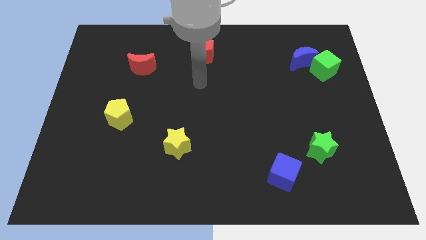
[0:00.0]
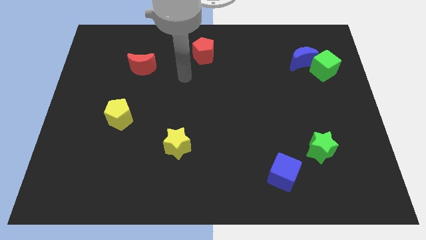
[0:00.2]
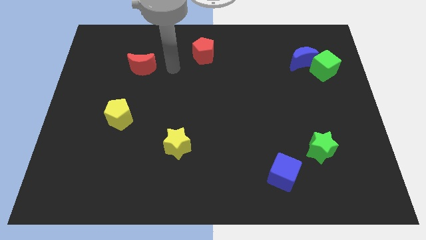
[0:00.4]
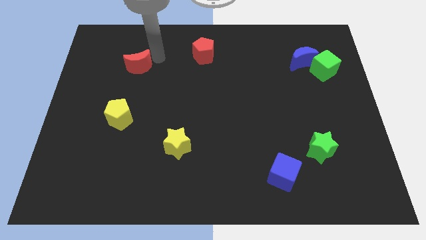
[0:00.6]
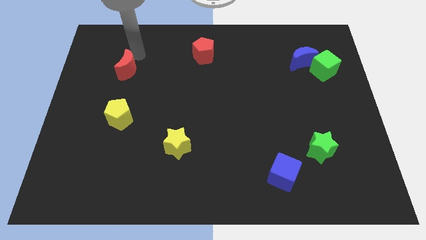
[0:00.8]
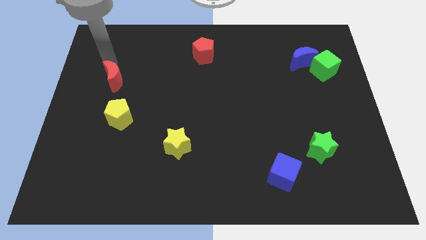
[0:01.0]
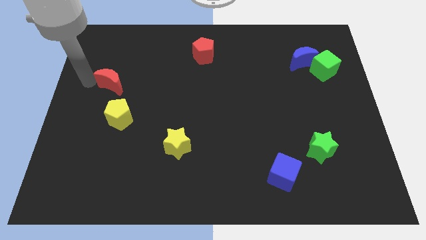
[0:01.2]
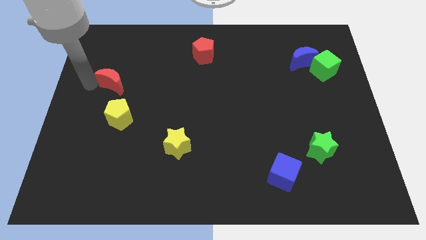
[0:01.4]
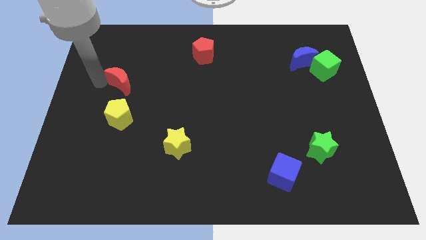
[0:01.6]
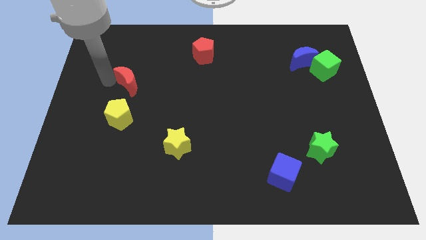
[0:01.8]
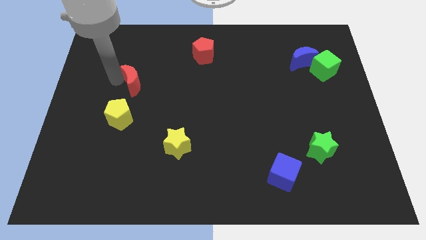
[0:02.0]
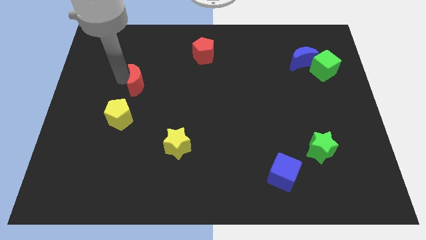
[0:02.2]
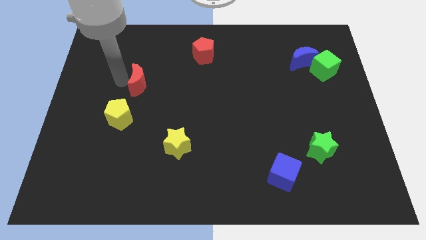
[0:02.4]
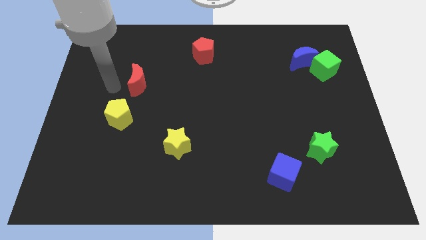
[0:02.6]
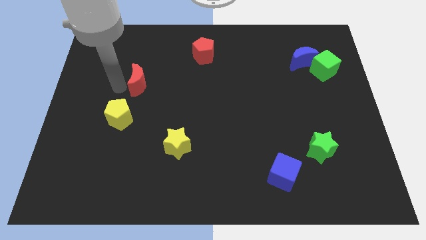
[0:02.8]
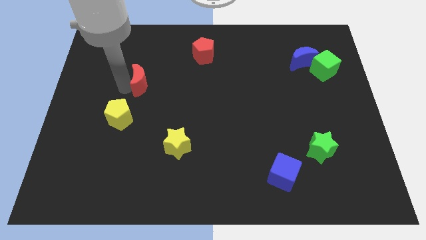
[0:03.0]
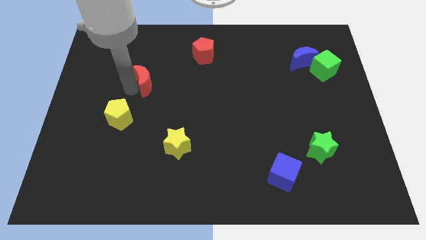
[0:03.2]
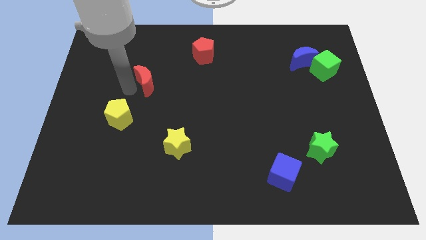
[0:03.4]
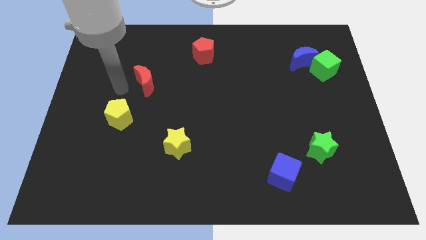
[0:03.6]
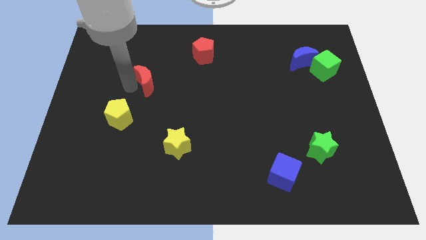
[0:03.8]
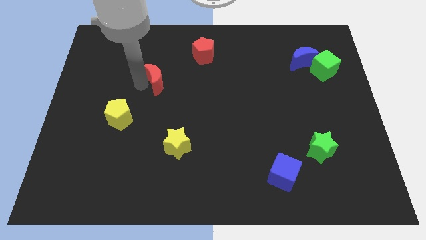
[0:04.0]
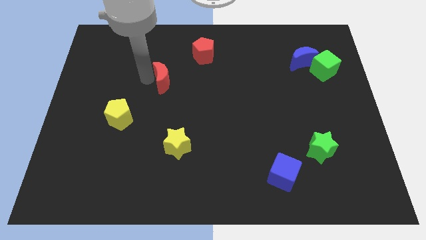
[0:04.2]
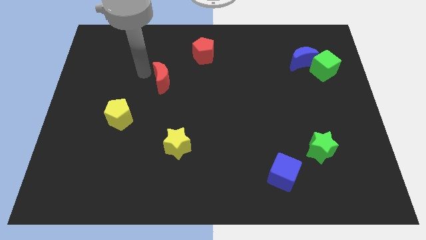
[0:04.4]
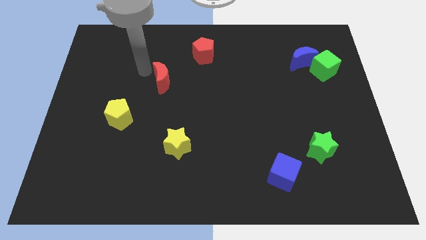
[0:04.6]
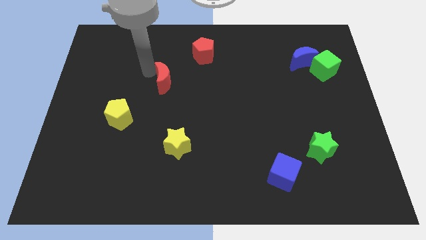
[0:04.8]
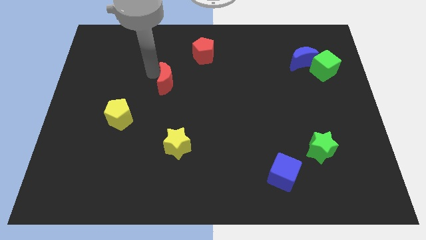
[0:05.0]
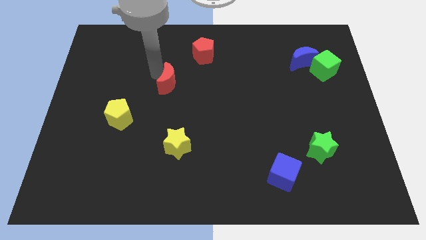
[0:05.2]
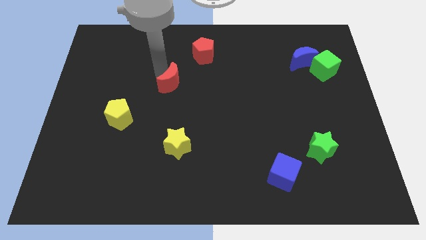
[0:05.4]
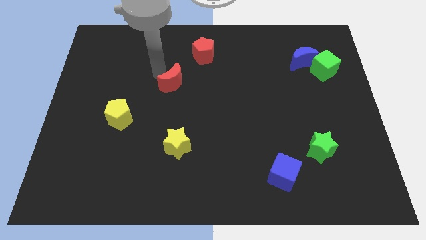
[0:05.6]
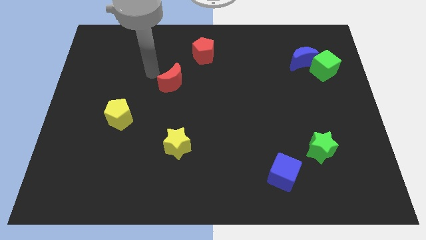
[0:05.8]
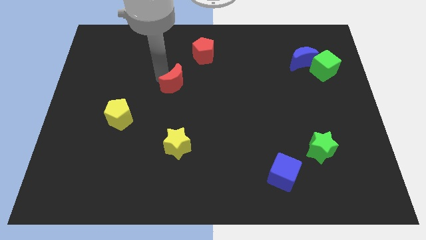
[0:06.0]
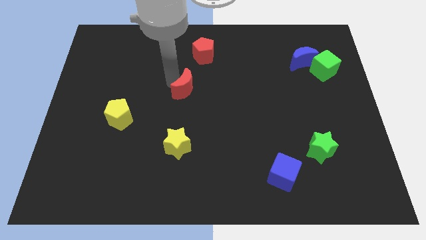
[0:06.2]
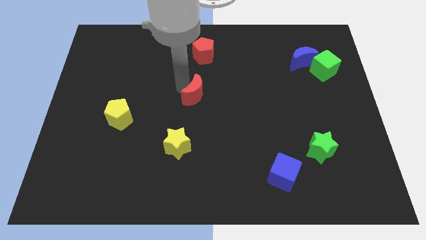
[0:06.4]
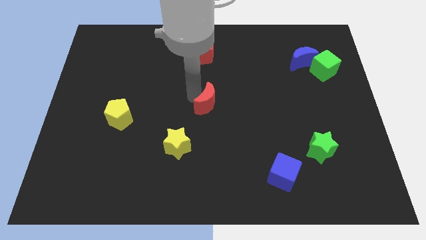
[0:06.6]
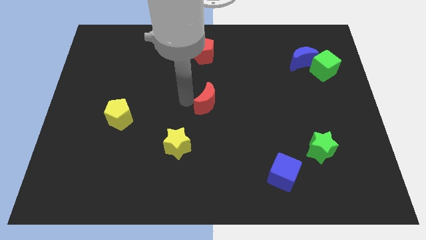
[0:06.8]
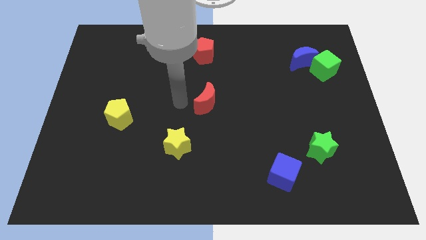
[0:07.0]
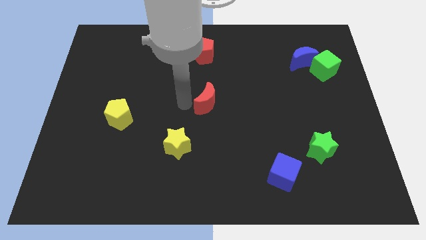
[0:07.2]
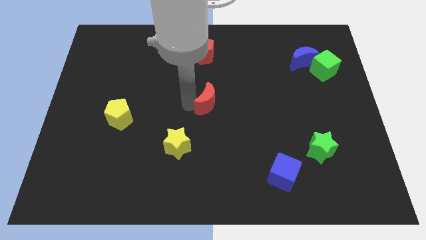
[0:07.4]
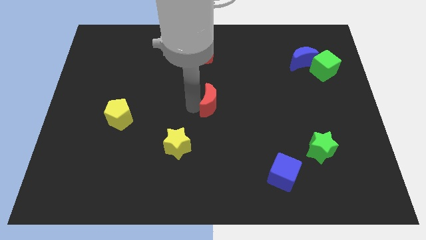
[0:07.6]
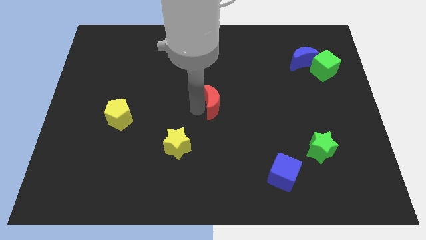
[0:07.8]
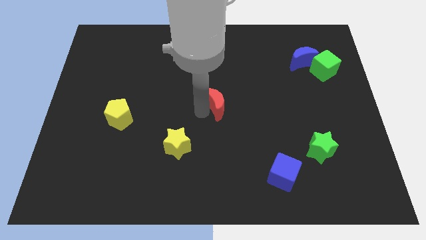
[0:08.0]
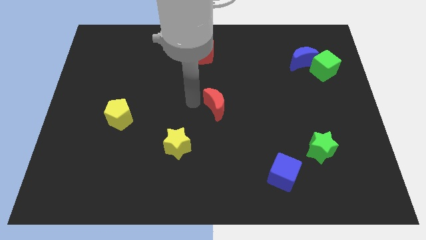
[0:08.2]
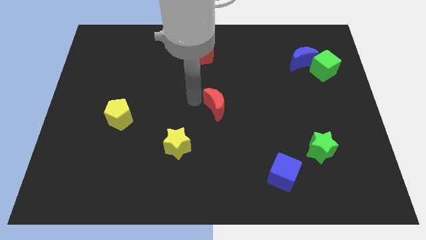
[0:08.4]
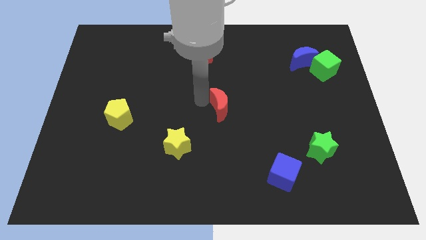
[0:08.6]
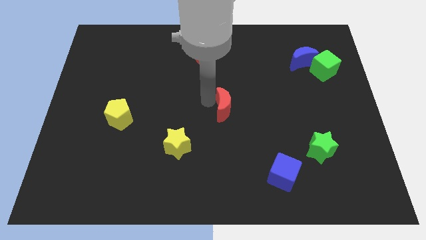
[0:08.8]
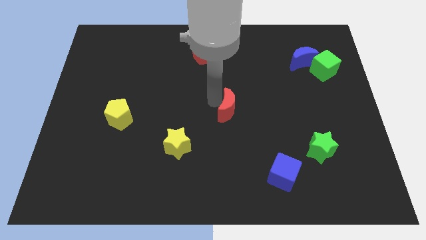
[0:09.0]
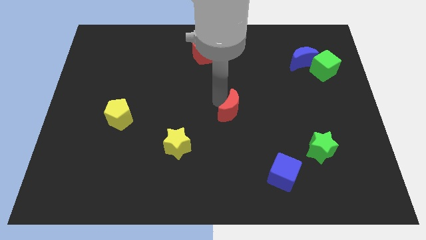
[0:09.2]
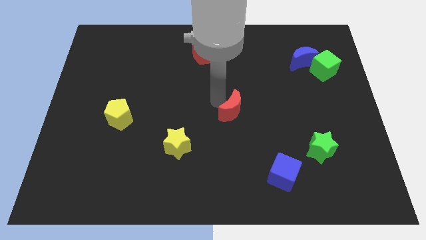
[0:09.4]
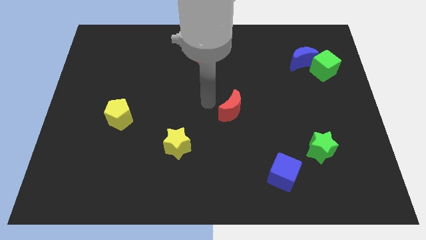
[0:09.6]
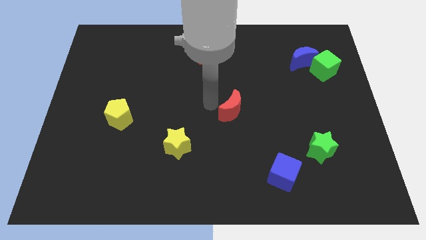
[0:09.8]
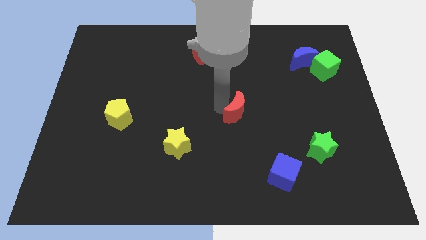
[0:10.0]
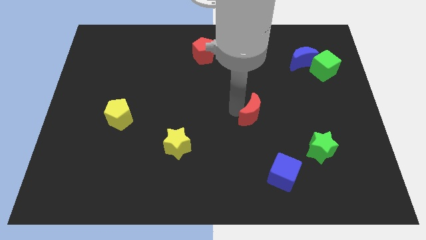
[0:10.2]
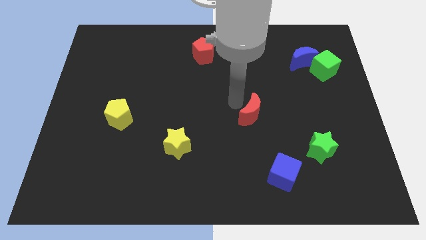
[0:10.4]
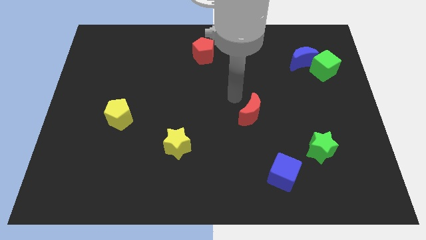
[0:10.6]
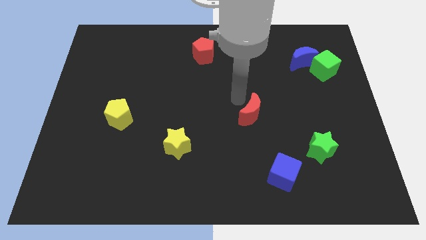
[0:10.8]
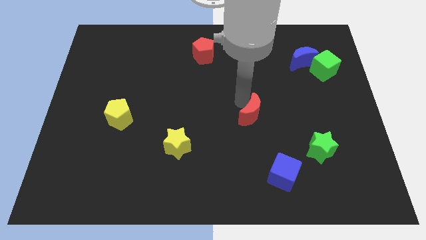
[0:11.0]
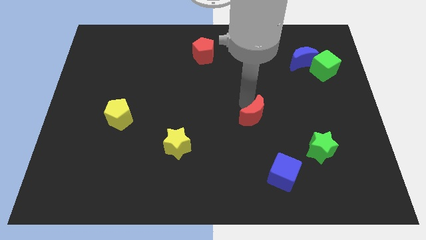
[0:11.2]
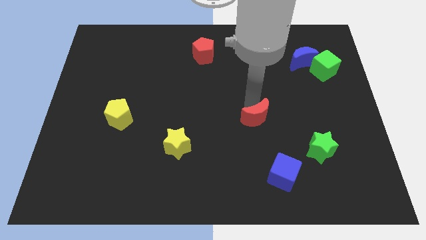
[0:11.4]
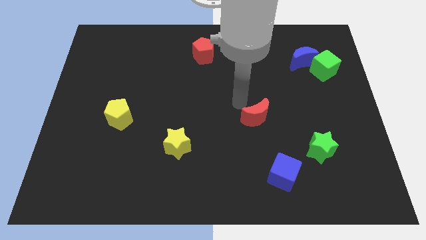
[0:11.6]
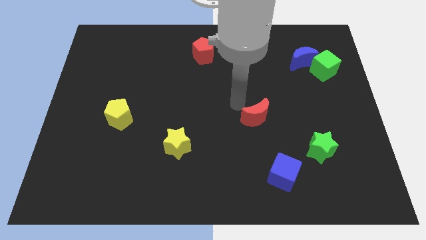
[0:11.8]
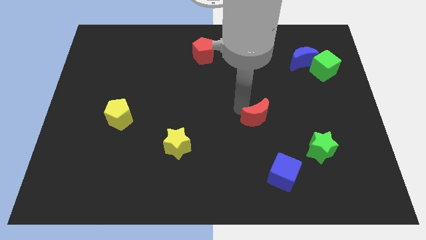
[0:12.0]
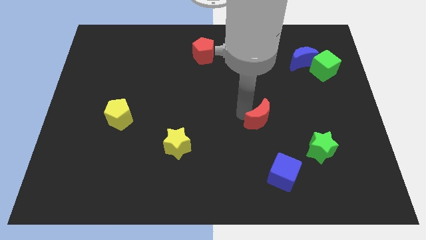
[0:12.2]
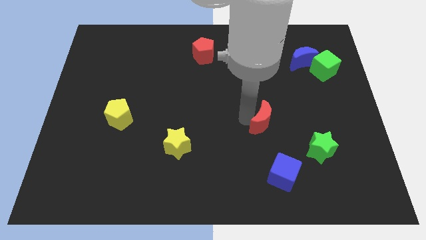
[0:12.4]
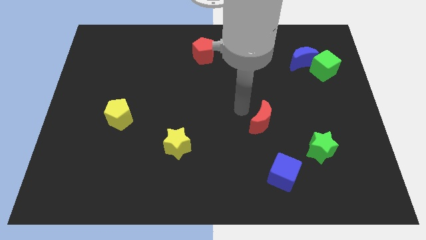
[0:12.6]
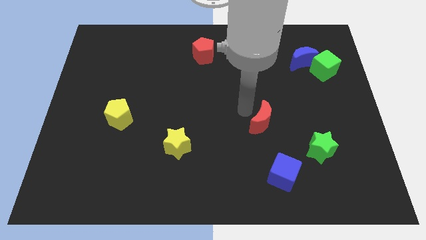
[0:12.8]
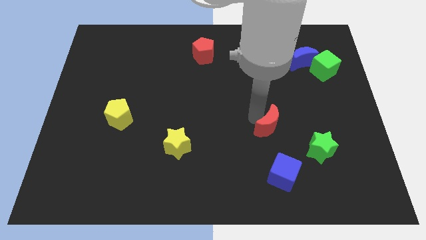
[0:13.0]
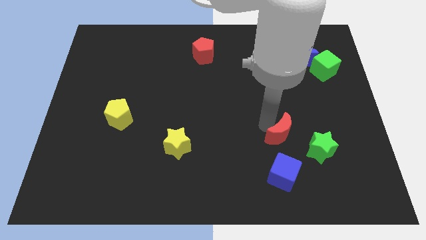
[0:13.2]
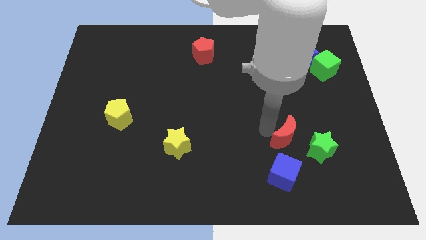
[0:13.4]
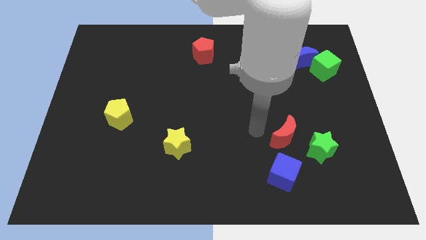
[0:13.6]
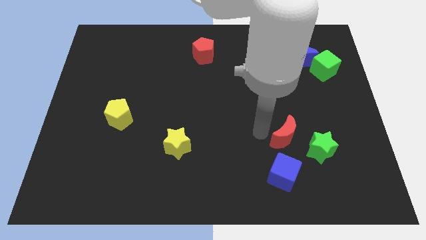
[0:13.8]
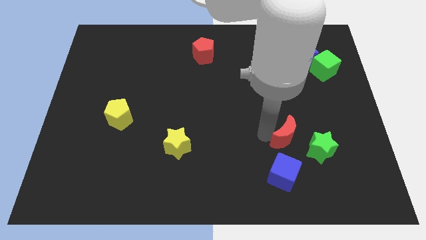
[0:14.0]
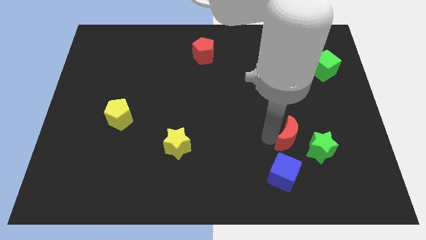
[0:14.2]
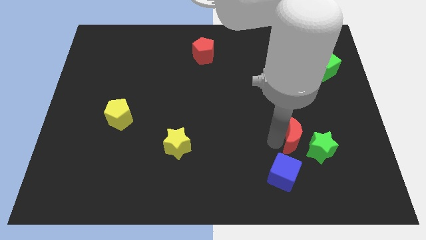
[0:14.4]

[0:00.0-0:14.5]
slide the red moon to the green star

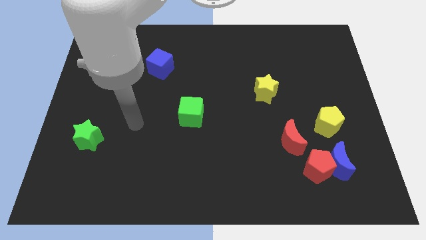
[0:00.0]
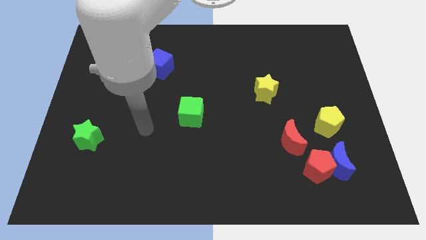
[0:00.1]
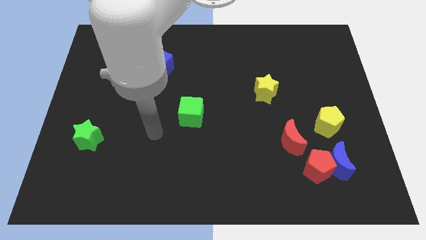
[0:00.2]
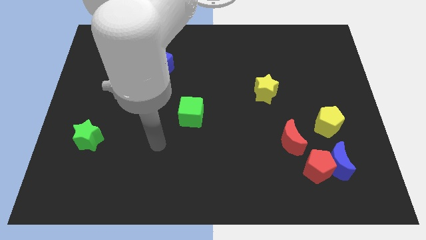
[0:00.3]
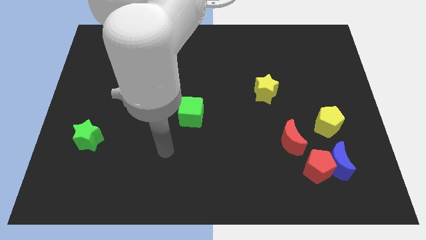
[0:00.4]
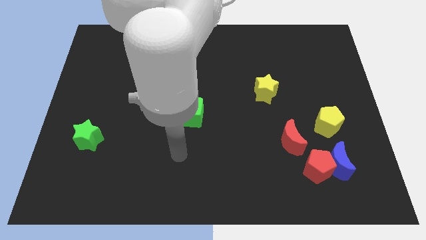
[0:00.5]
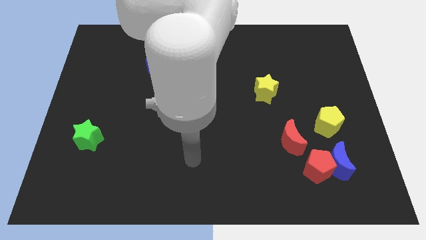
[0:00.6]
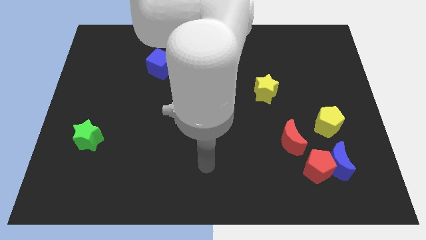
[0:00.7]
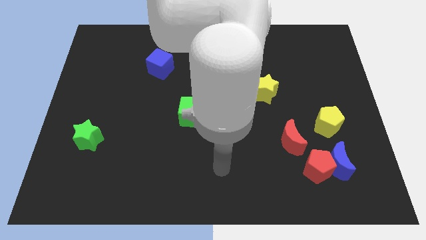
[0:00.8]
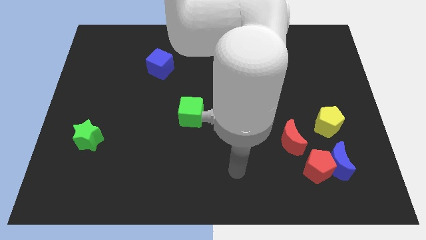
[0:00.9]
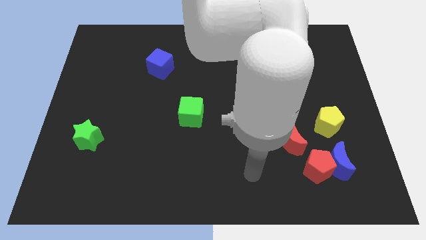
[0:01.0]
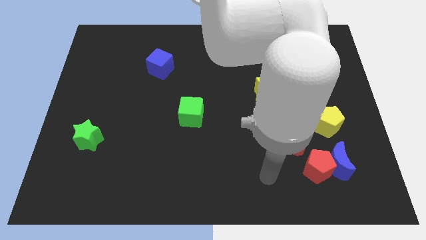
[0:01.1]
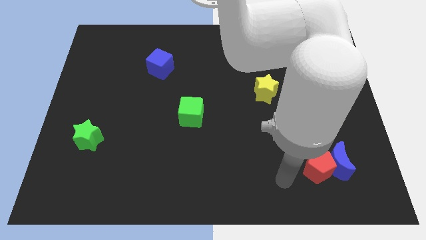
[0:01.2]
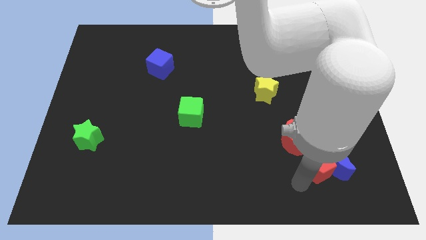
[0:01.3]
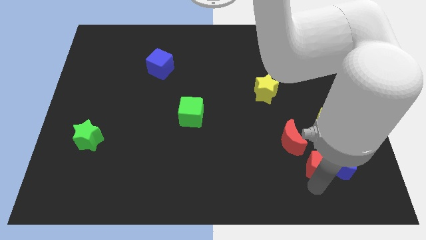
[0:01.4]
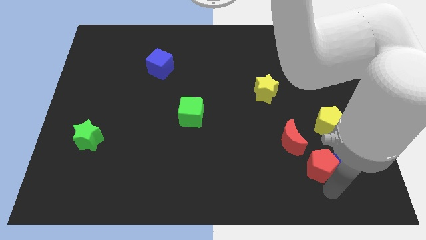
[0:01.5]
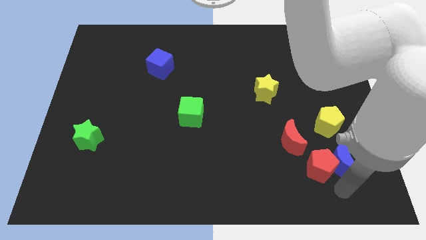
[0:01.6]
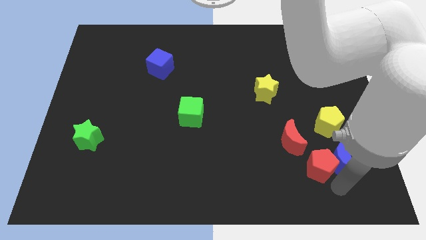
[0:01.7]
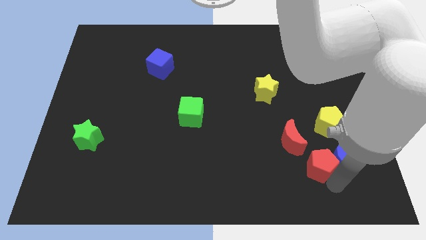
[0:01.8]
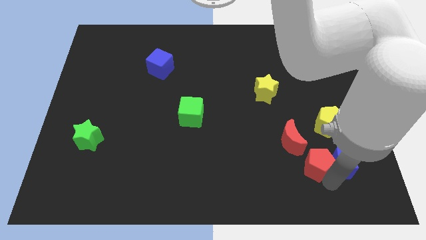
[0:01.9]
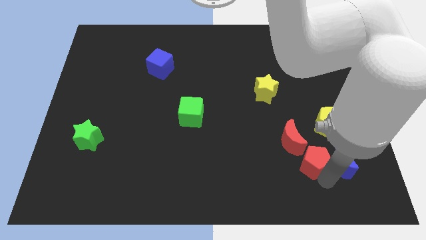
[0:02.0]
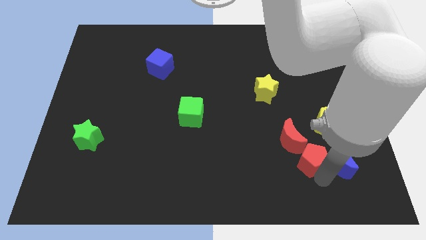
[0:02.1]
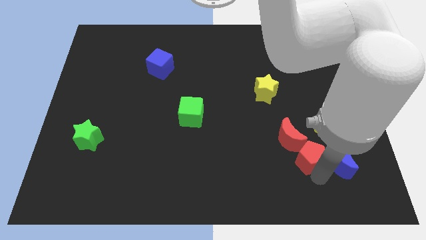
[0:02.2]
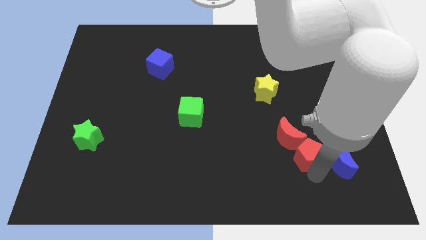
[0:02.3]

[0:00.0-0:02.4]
put the red pentagon to the red moon
